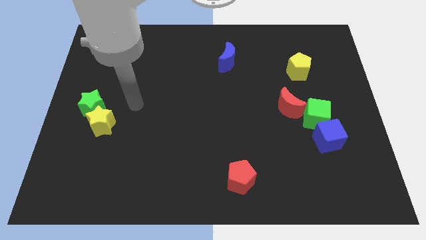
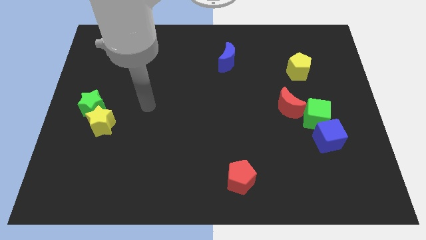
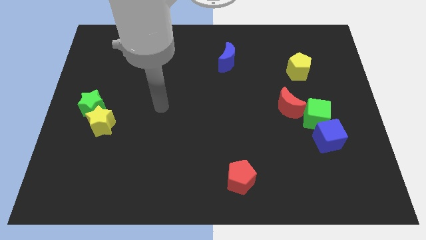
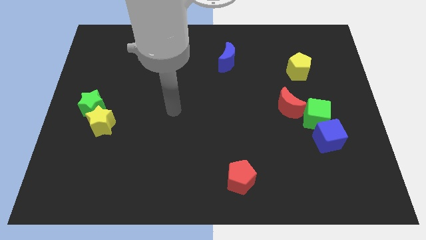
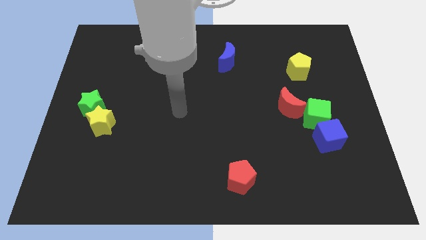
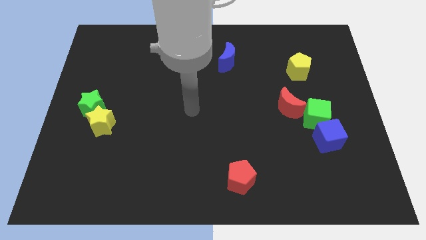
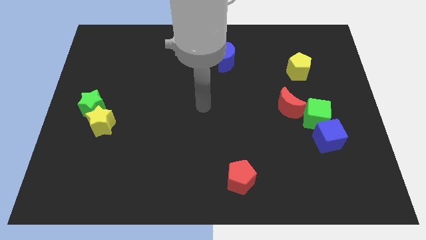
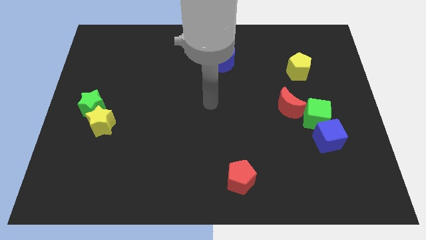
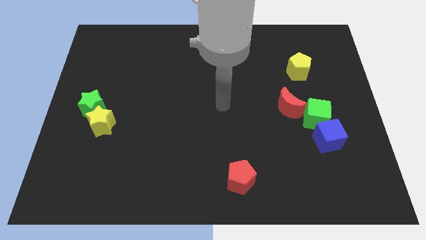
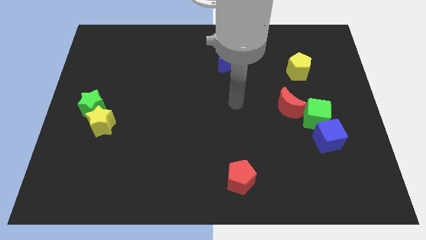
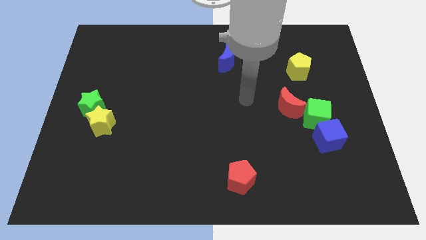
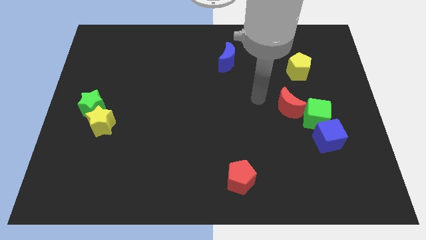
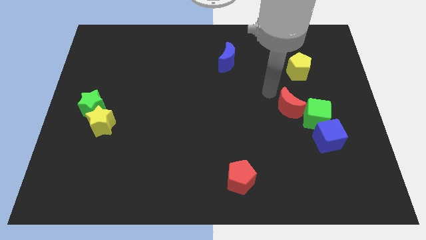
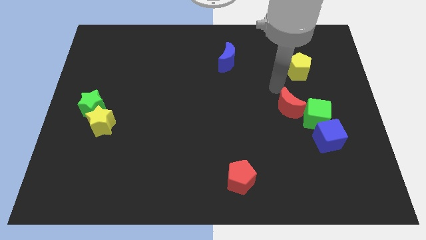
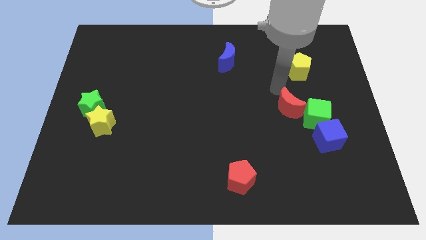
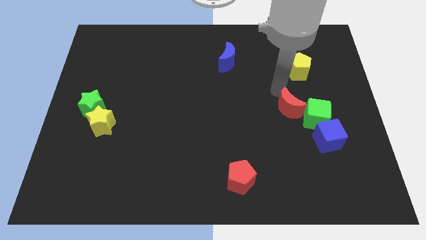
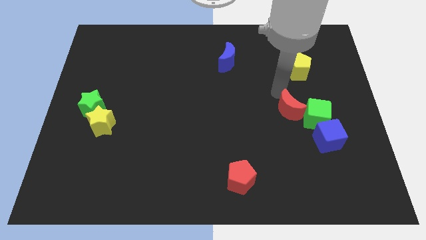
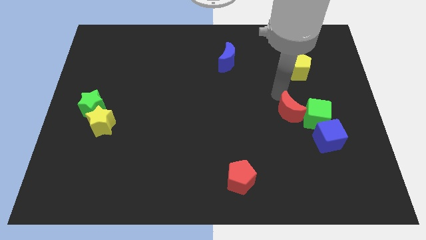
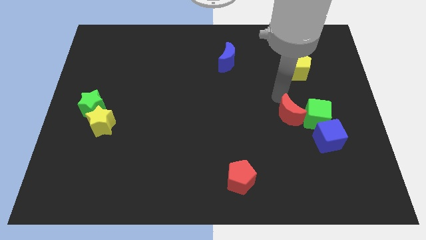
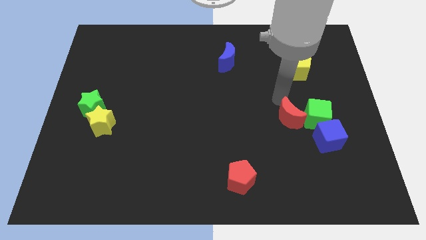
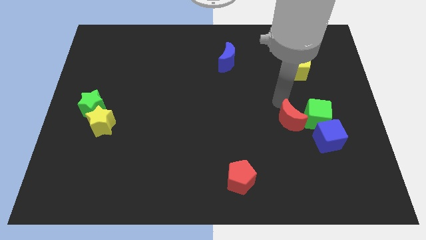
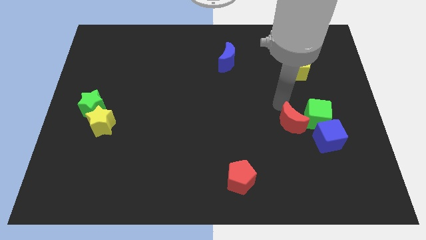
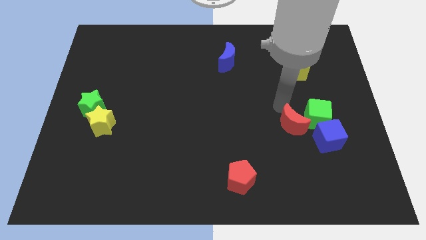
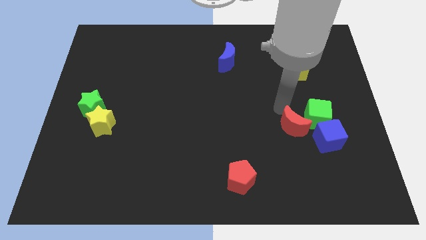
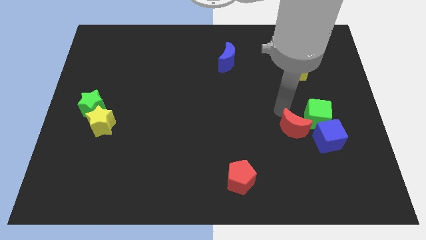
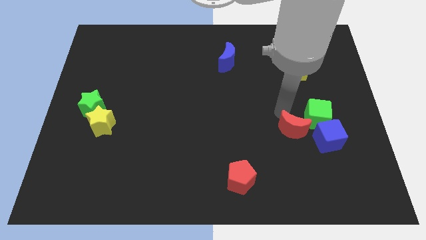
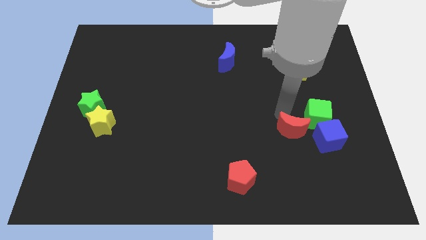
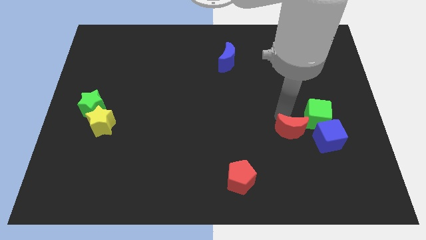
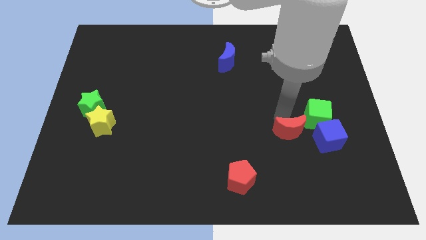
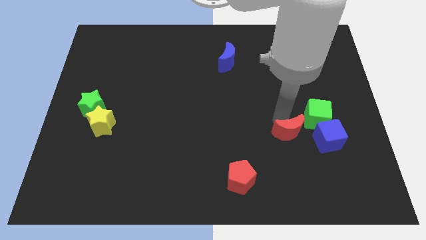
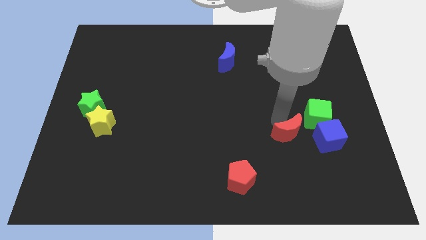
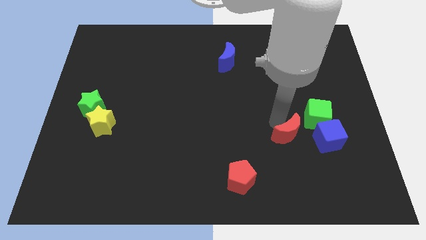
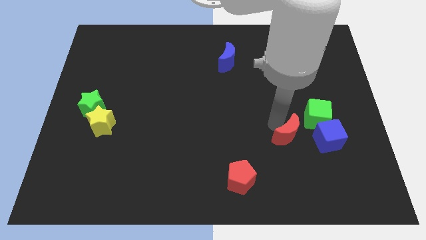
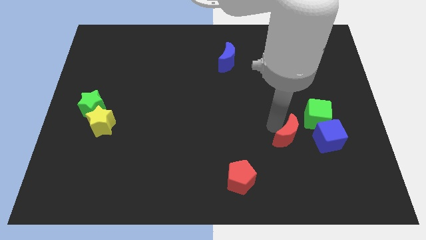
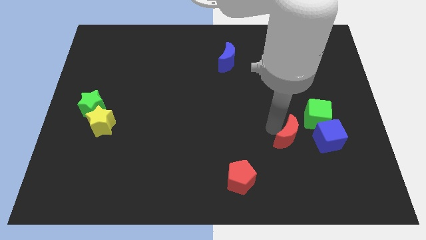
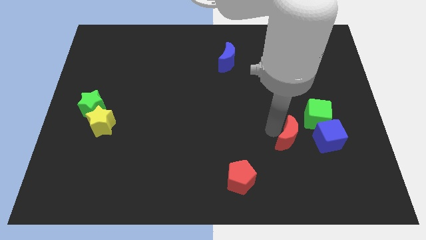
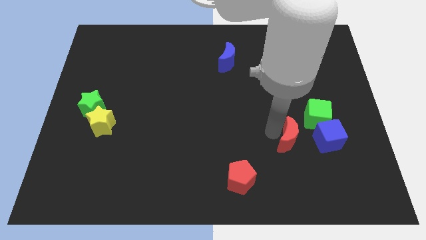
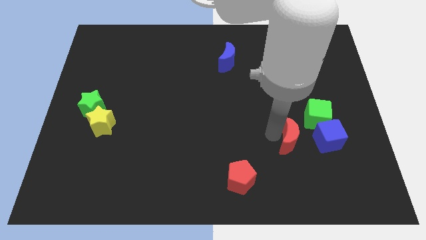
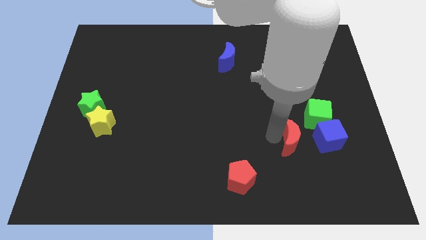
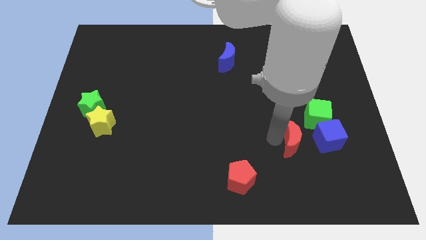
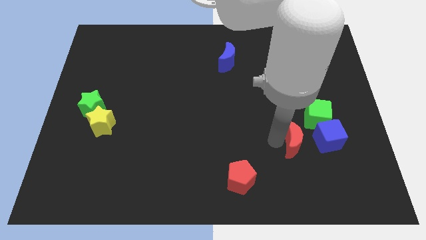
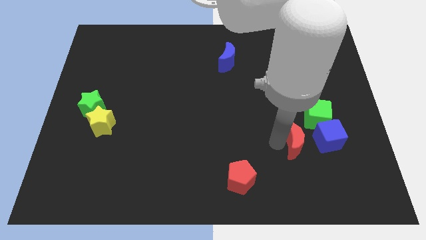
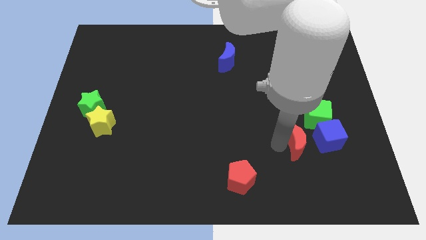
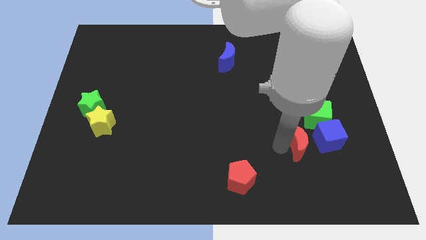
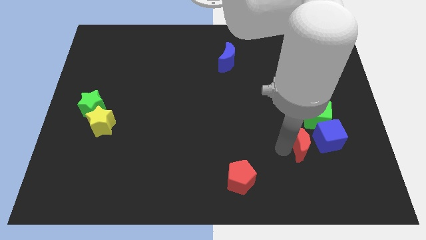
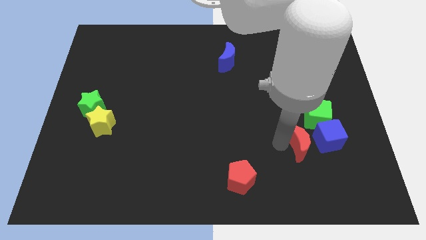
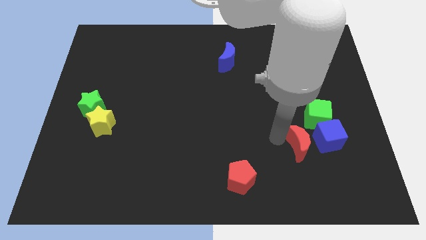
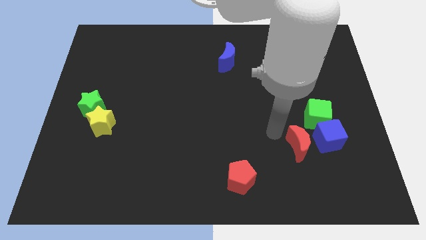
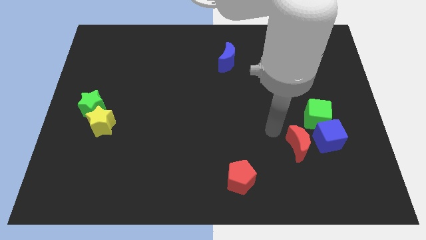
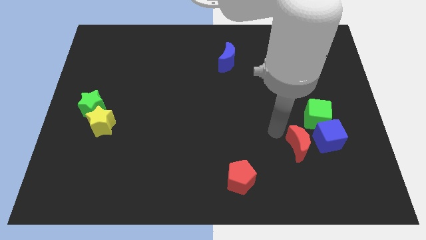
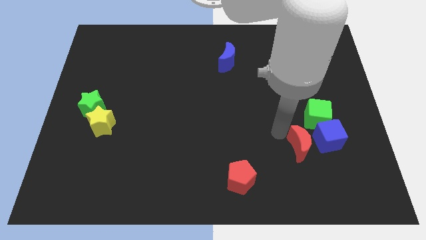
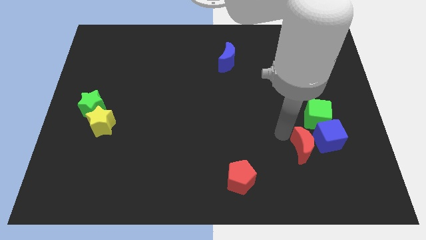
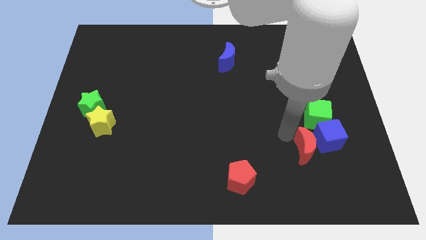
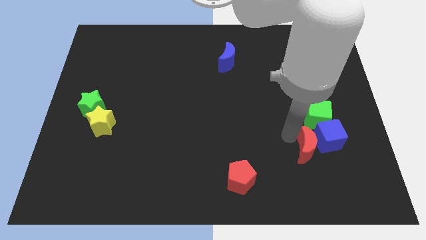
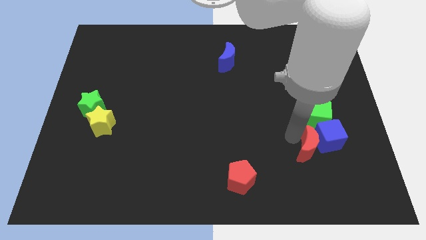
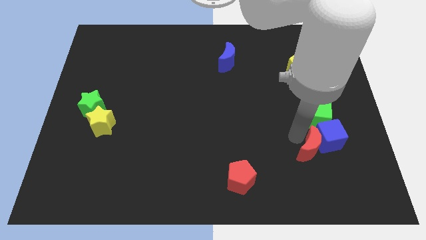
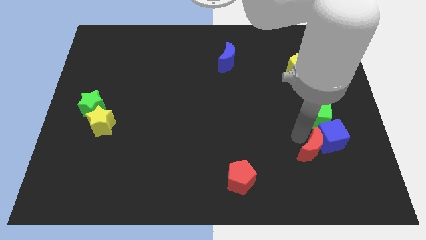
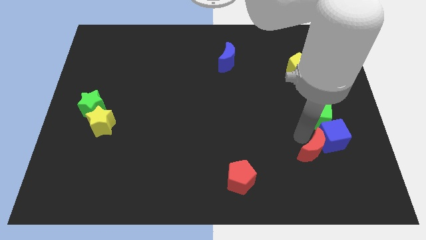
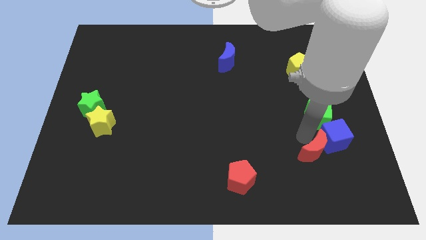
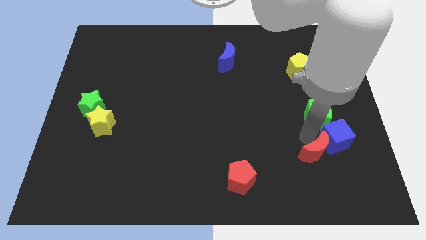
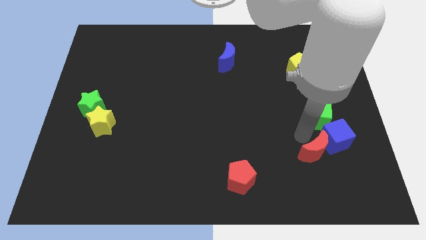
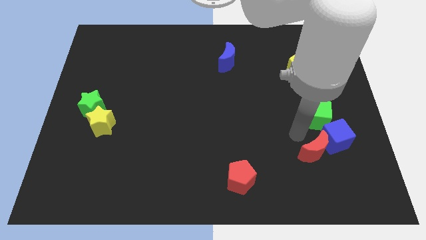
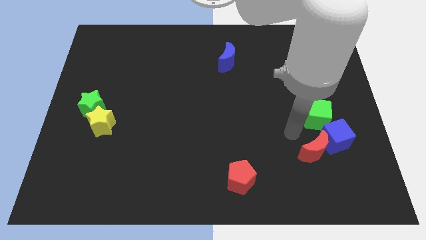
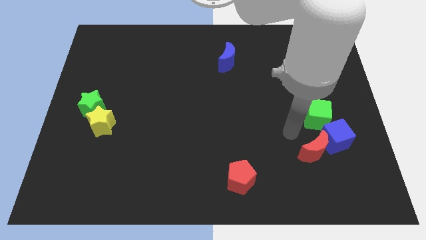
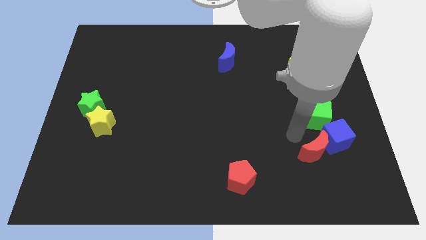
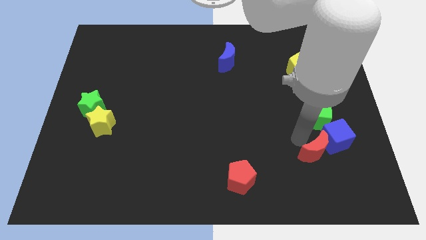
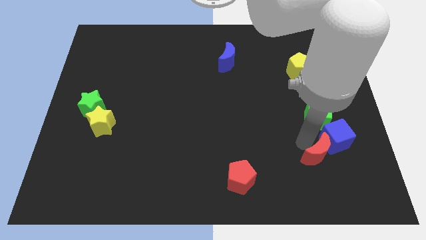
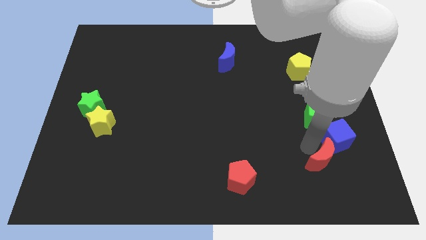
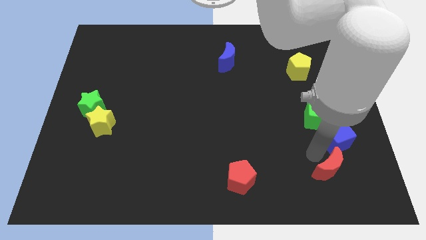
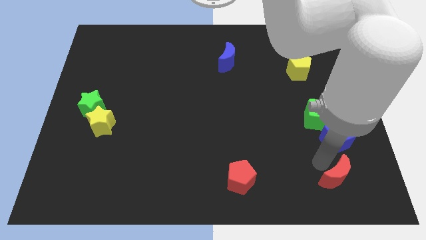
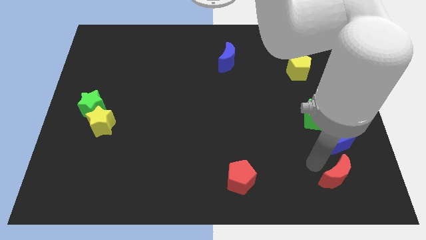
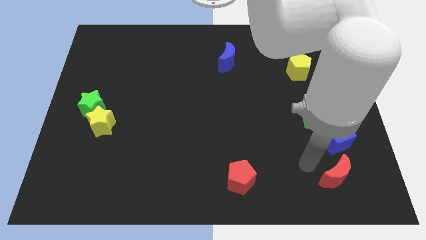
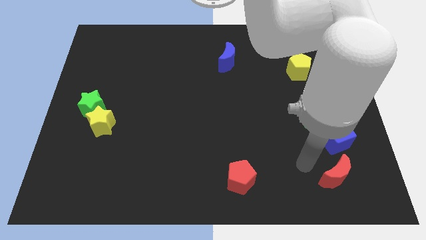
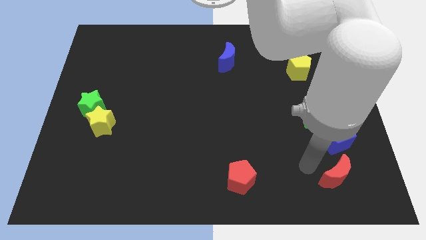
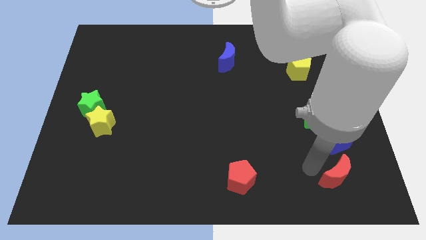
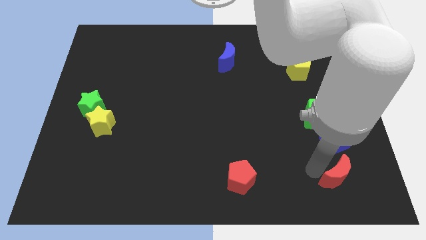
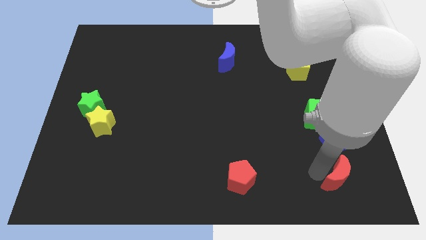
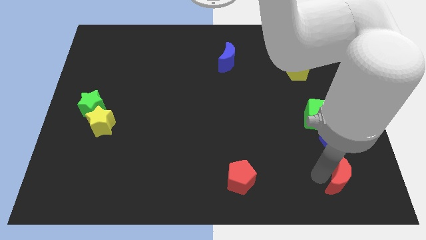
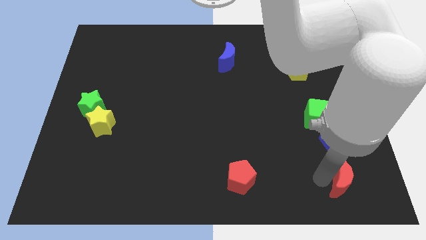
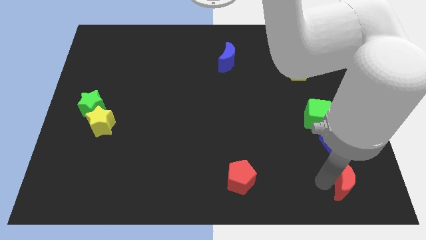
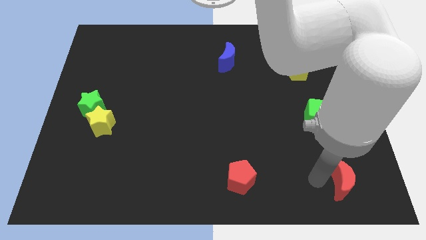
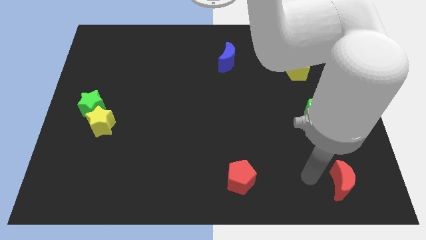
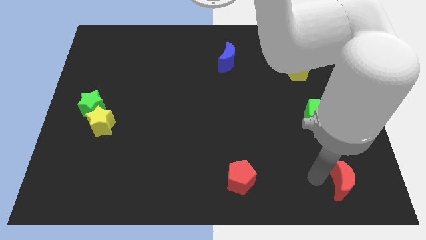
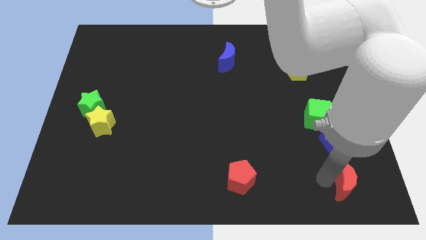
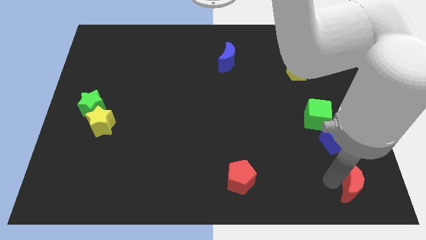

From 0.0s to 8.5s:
push the red moon to the bottom right
